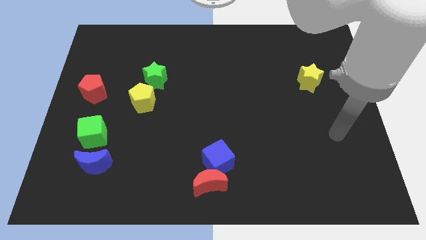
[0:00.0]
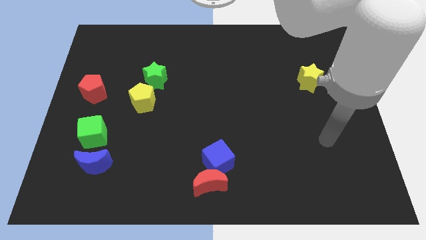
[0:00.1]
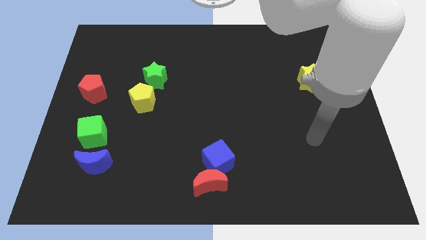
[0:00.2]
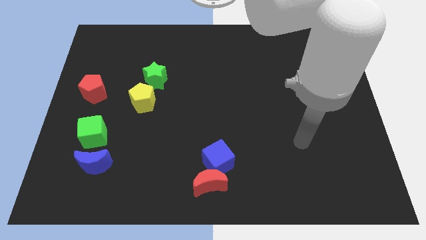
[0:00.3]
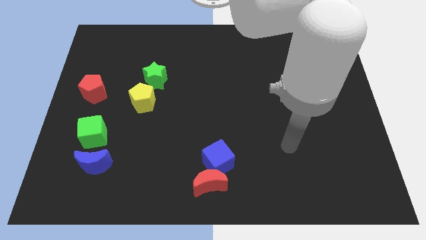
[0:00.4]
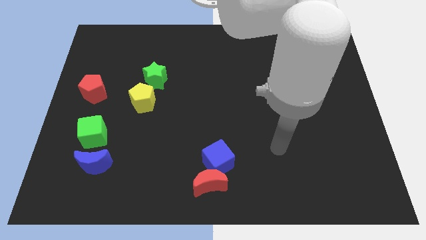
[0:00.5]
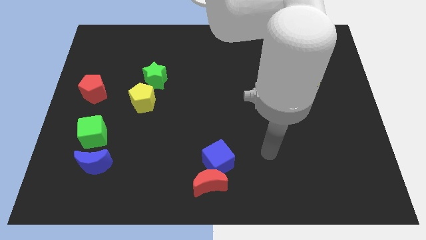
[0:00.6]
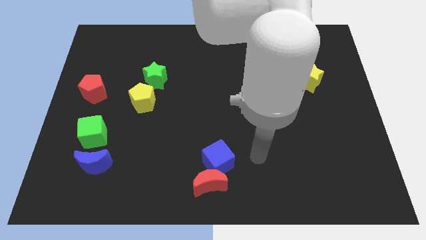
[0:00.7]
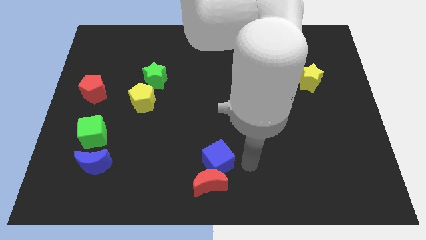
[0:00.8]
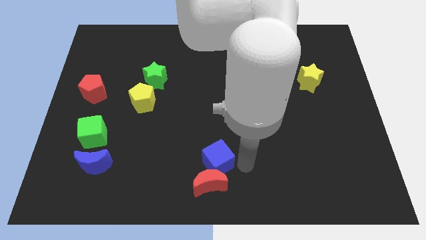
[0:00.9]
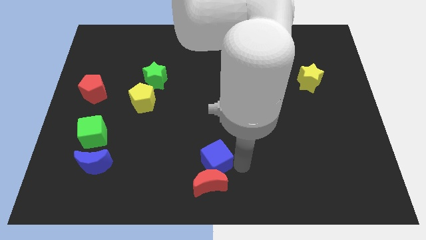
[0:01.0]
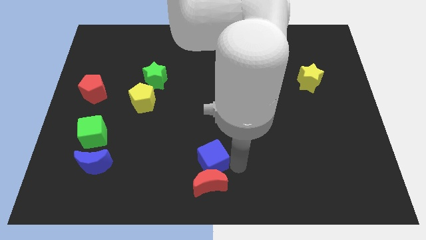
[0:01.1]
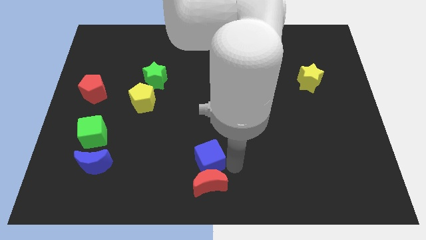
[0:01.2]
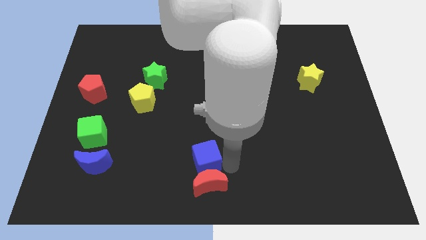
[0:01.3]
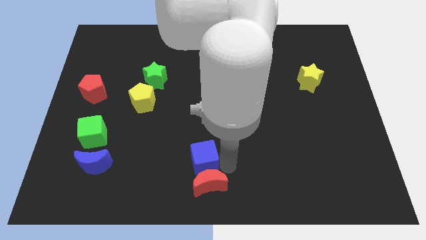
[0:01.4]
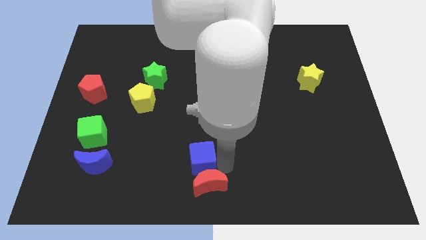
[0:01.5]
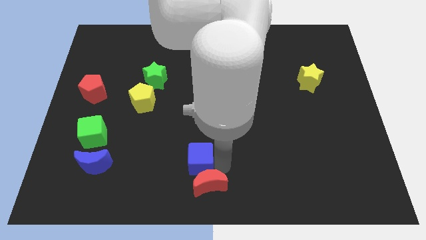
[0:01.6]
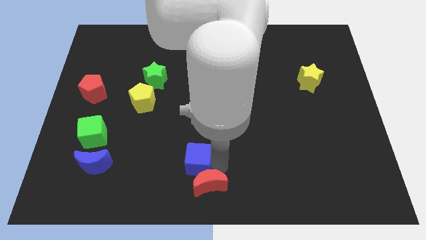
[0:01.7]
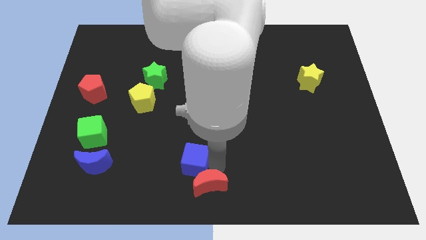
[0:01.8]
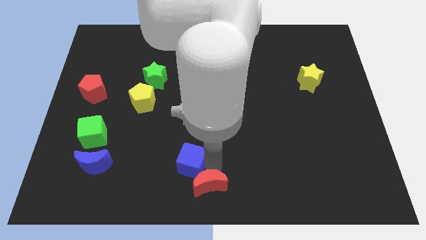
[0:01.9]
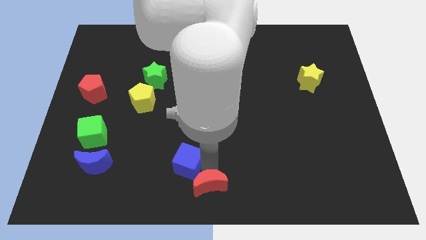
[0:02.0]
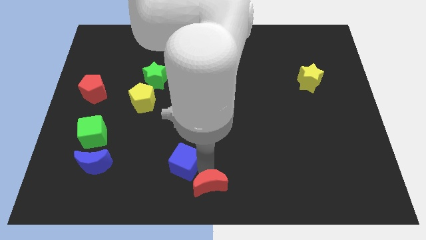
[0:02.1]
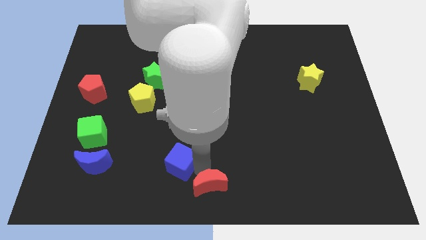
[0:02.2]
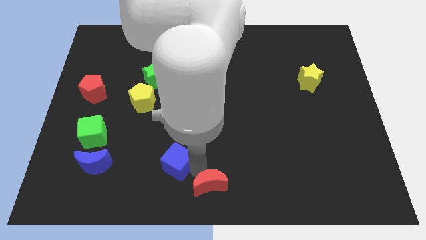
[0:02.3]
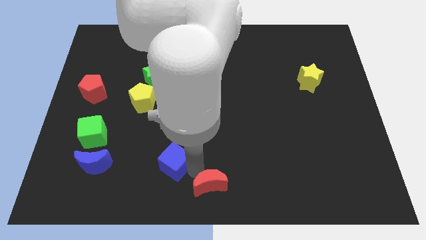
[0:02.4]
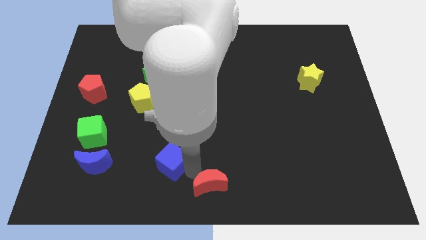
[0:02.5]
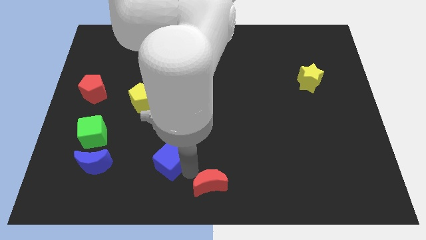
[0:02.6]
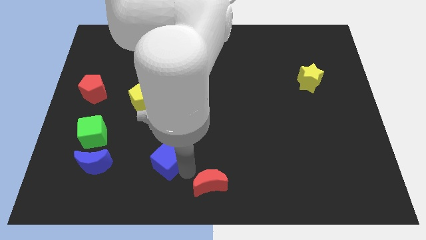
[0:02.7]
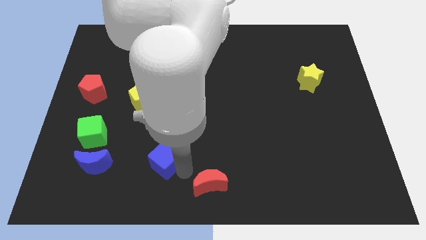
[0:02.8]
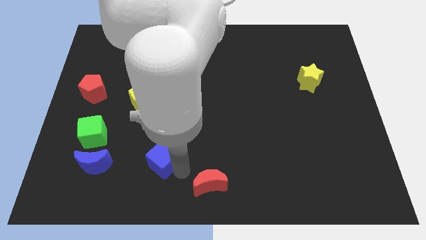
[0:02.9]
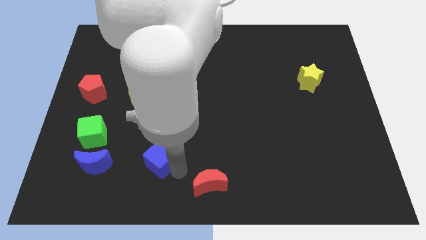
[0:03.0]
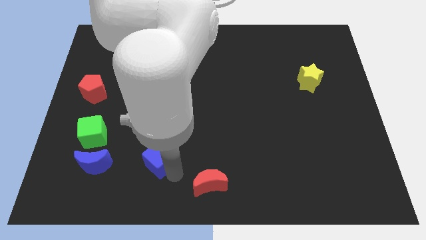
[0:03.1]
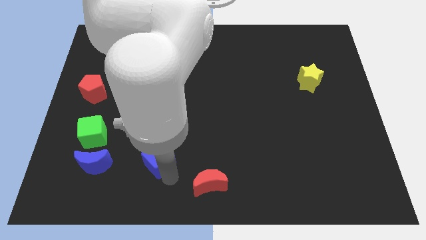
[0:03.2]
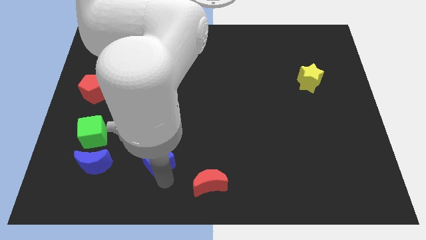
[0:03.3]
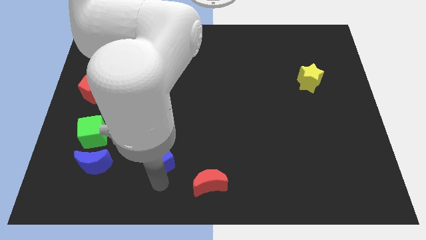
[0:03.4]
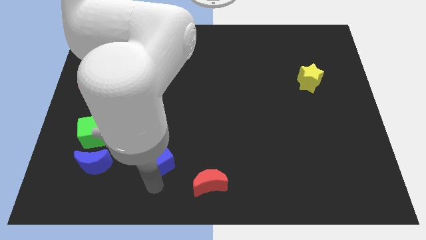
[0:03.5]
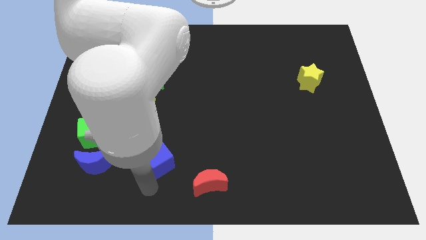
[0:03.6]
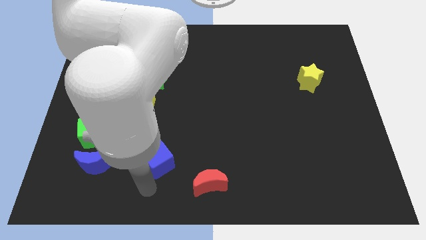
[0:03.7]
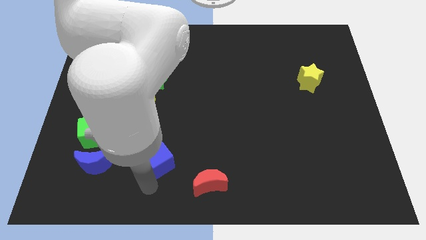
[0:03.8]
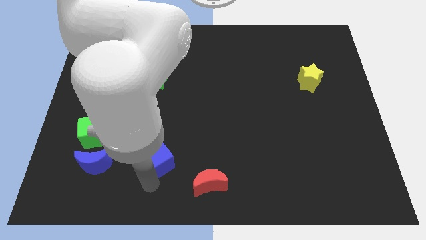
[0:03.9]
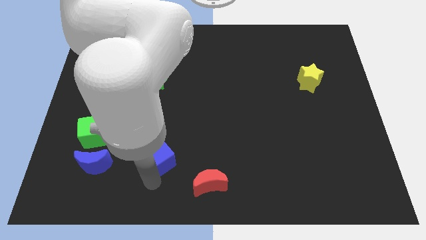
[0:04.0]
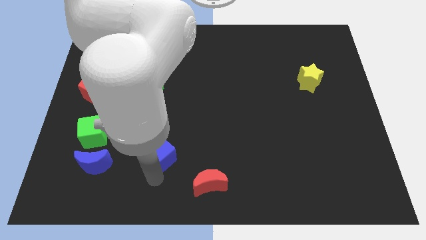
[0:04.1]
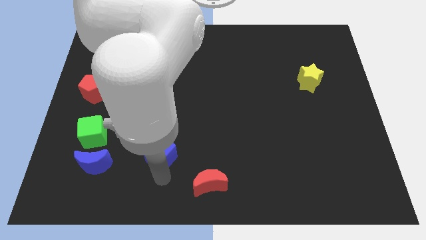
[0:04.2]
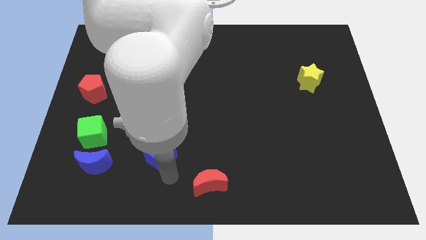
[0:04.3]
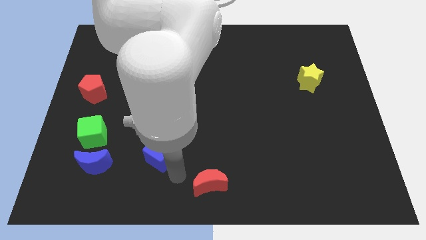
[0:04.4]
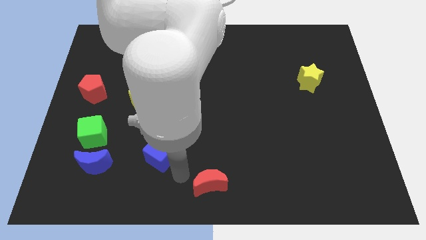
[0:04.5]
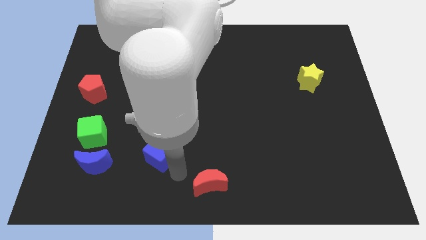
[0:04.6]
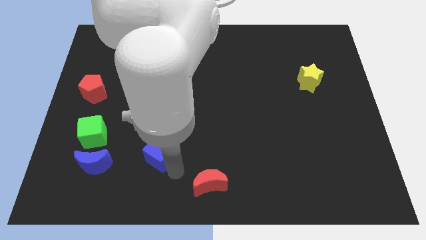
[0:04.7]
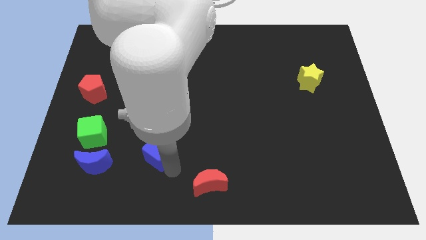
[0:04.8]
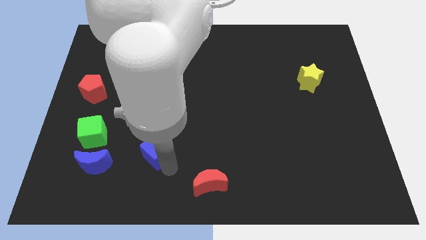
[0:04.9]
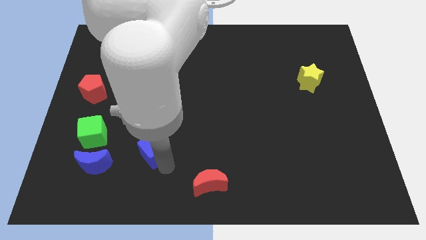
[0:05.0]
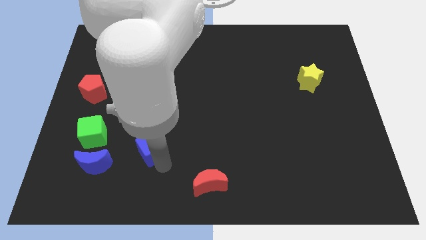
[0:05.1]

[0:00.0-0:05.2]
move the blue cube to the right of the green cube

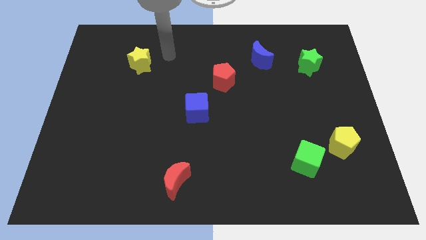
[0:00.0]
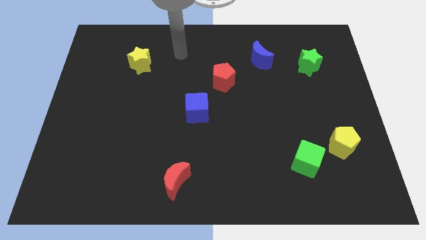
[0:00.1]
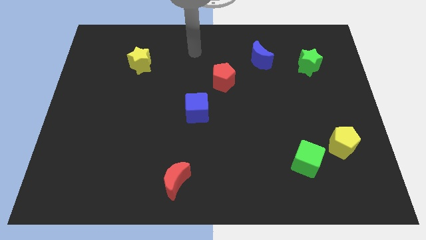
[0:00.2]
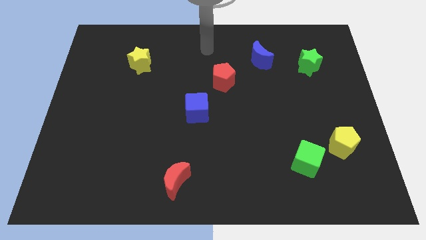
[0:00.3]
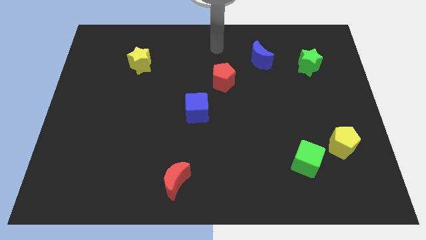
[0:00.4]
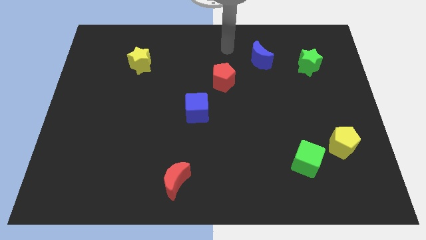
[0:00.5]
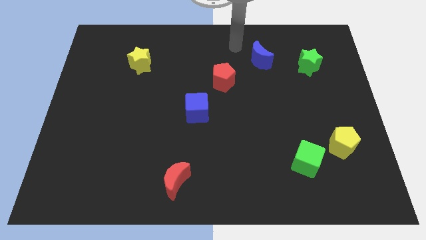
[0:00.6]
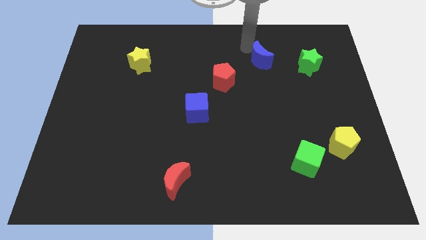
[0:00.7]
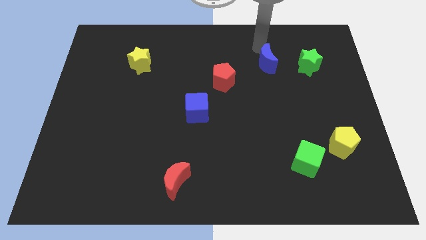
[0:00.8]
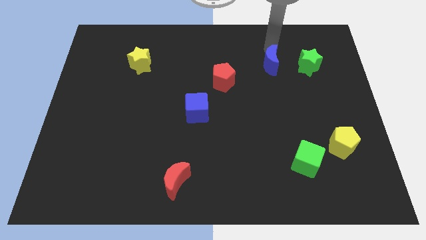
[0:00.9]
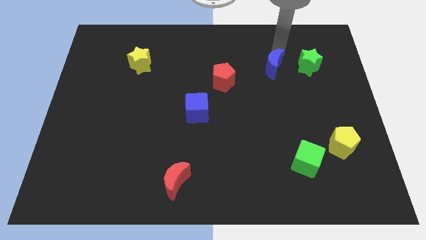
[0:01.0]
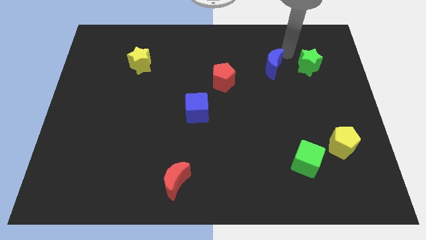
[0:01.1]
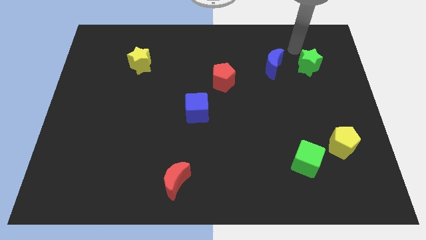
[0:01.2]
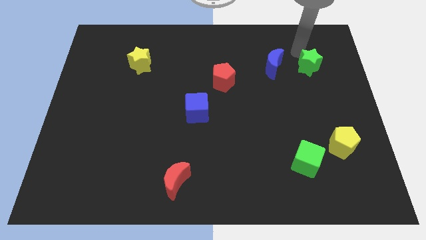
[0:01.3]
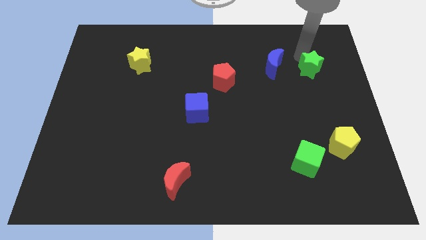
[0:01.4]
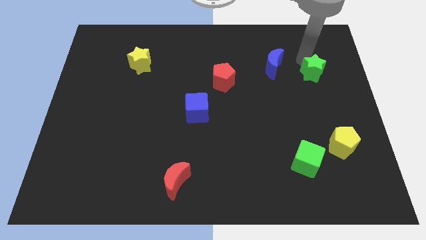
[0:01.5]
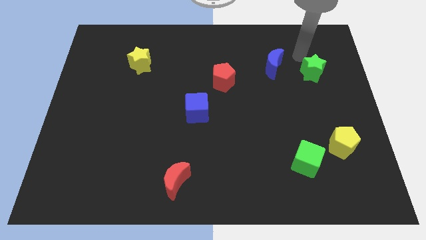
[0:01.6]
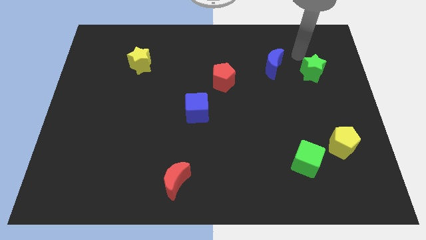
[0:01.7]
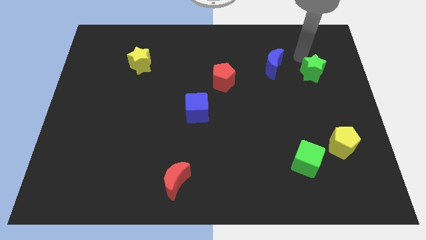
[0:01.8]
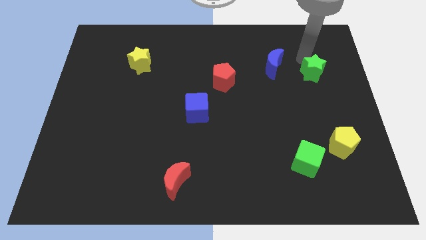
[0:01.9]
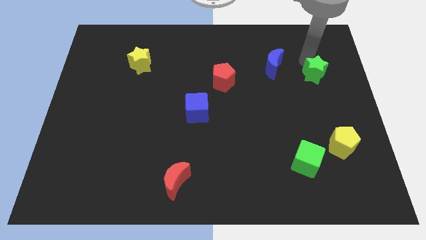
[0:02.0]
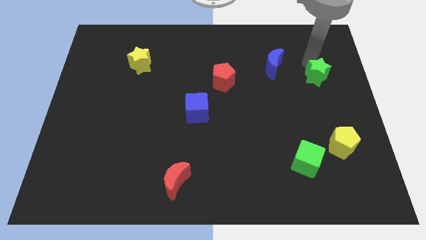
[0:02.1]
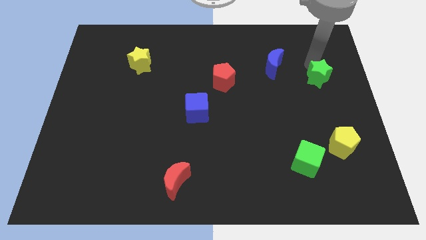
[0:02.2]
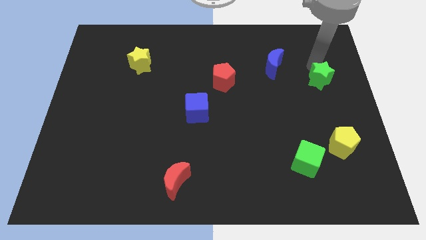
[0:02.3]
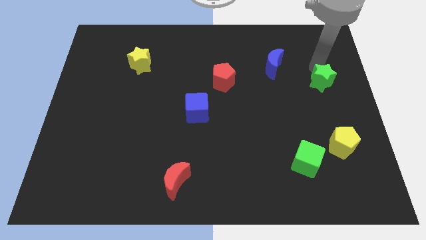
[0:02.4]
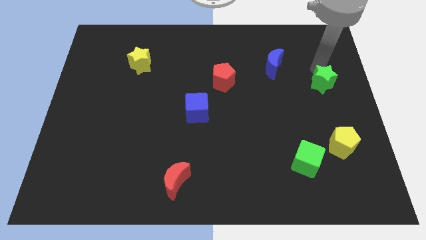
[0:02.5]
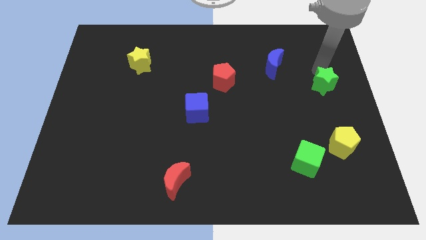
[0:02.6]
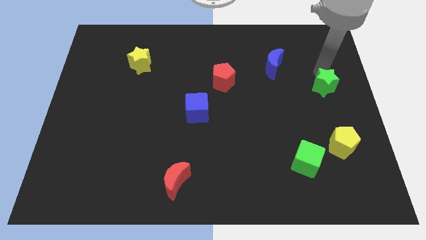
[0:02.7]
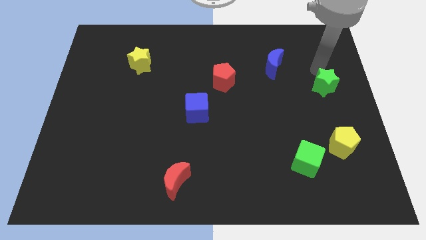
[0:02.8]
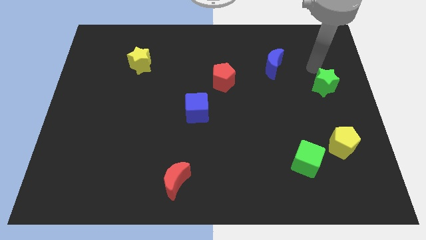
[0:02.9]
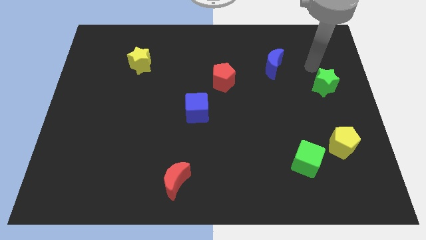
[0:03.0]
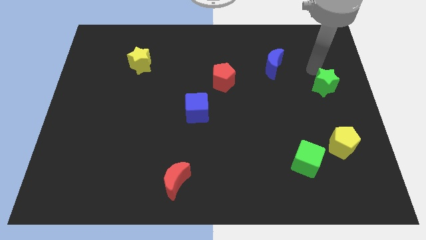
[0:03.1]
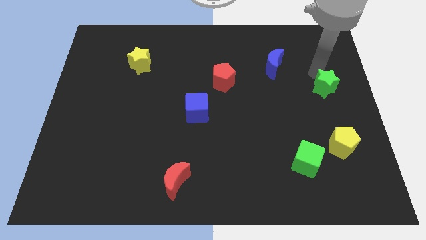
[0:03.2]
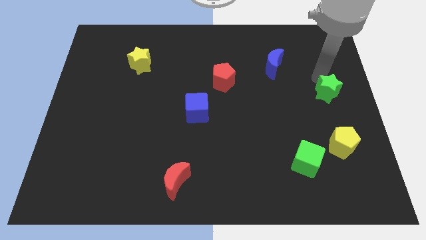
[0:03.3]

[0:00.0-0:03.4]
put the green star to the top side of the yellow pentagon
